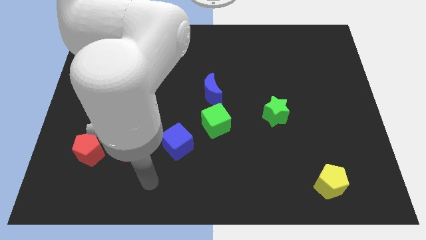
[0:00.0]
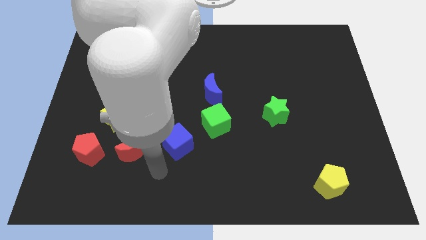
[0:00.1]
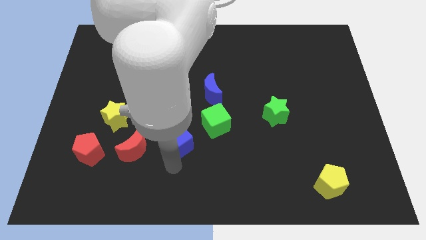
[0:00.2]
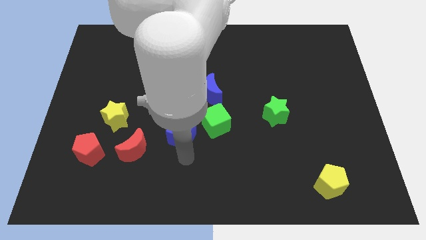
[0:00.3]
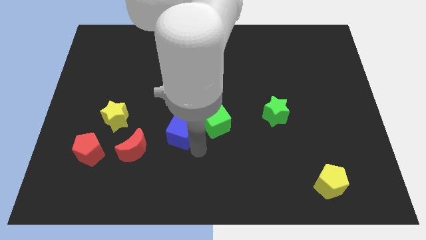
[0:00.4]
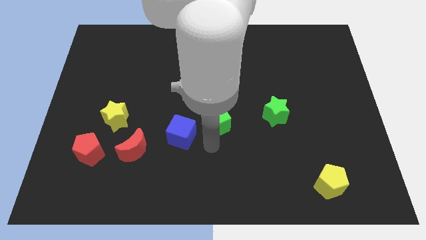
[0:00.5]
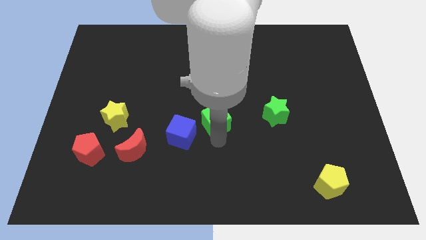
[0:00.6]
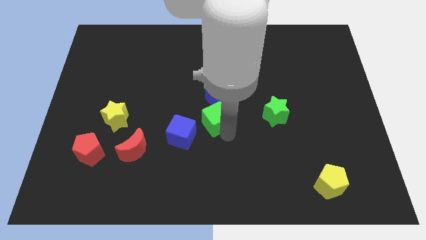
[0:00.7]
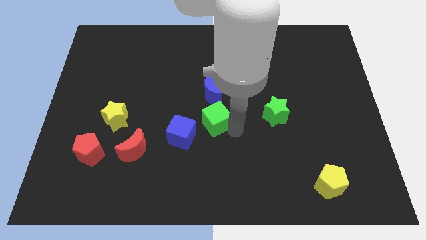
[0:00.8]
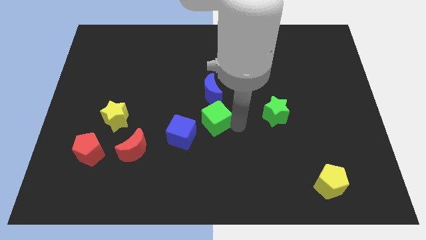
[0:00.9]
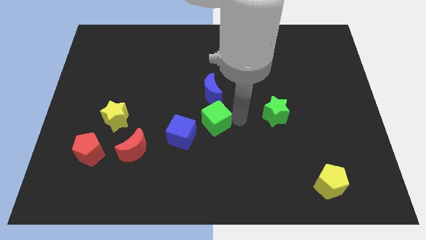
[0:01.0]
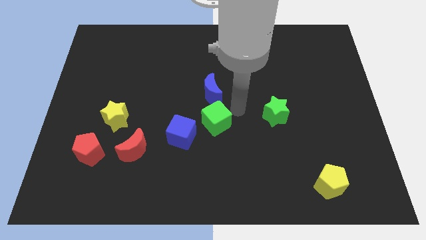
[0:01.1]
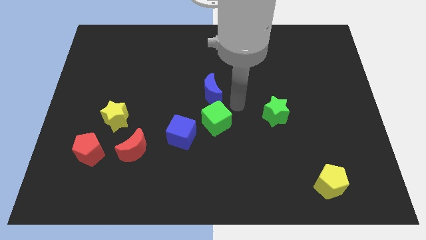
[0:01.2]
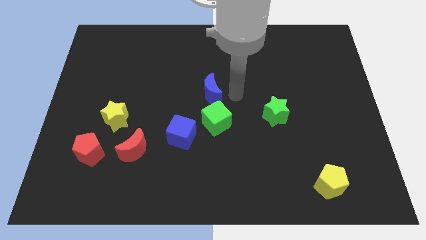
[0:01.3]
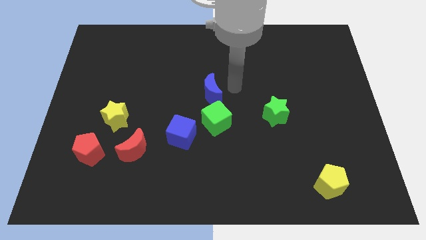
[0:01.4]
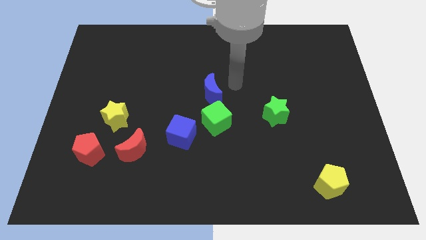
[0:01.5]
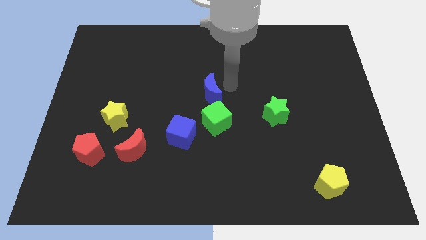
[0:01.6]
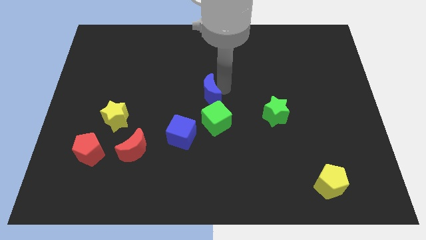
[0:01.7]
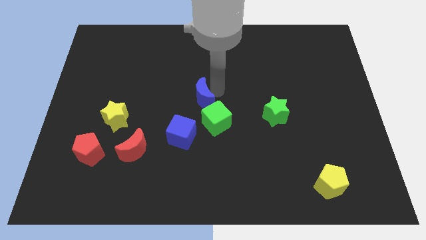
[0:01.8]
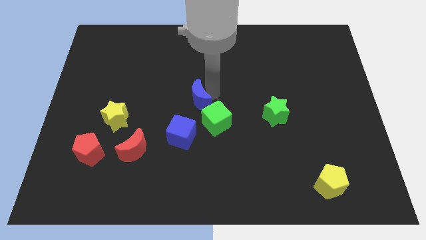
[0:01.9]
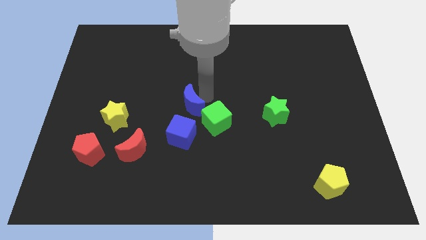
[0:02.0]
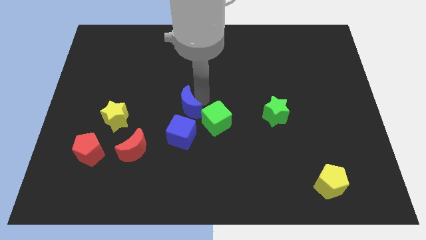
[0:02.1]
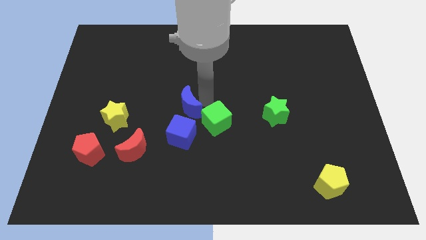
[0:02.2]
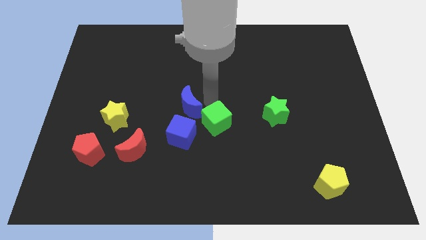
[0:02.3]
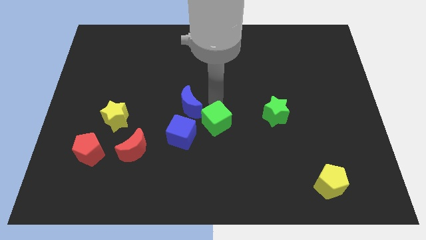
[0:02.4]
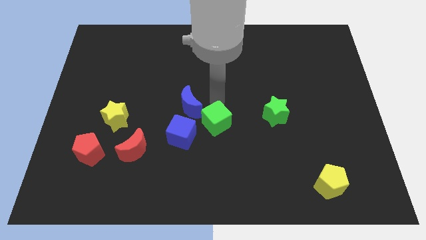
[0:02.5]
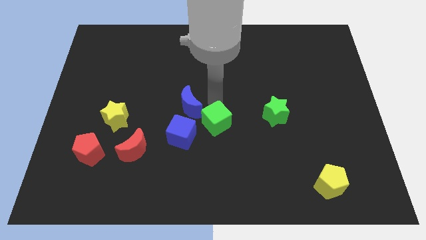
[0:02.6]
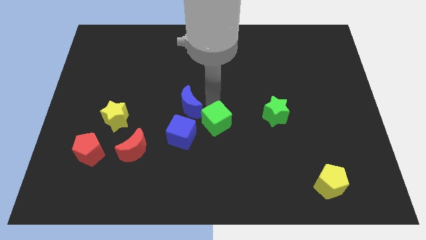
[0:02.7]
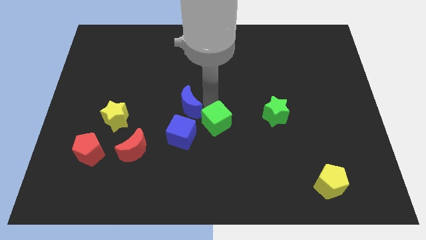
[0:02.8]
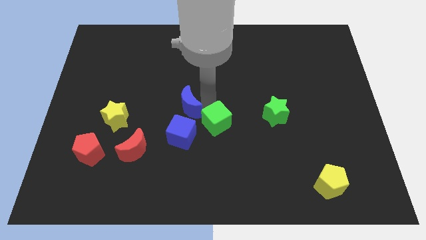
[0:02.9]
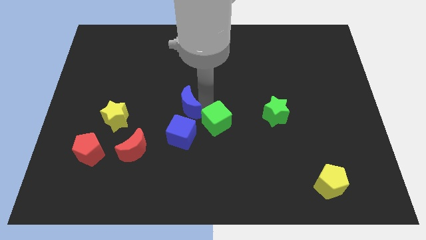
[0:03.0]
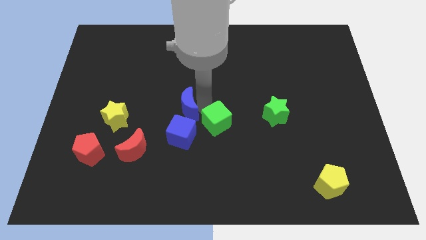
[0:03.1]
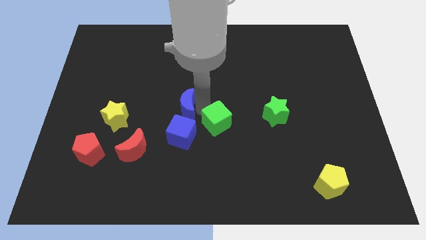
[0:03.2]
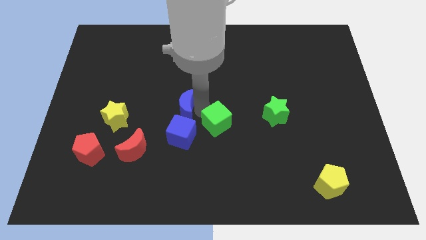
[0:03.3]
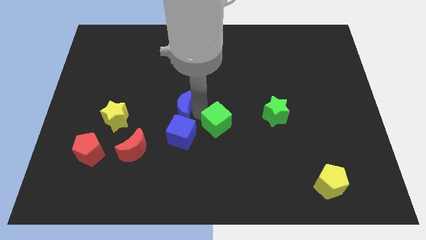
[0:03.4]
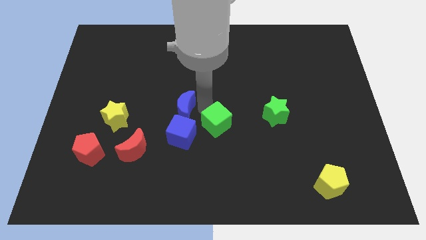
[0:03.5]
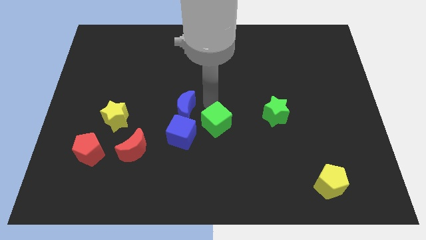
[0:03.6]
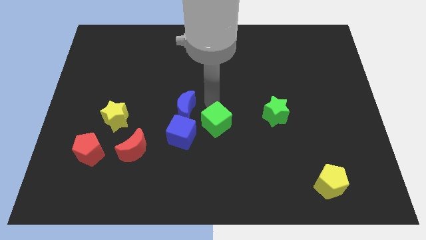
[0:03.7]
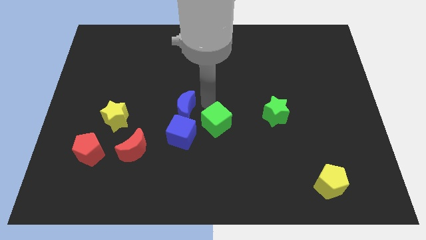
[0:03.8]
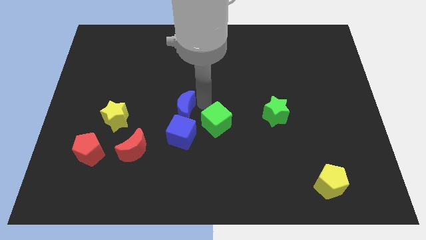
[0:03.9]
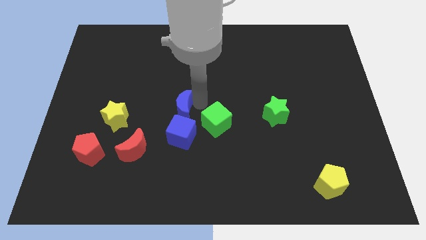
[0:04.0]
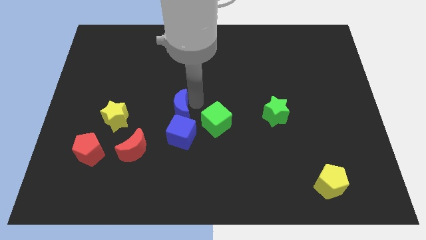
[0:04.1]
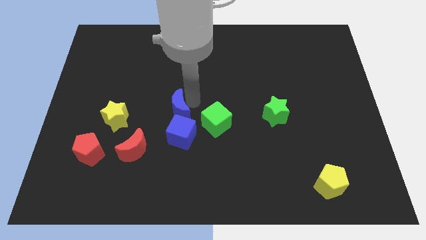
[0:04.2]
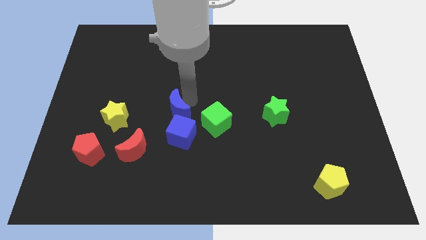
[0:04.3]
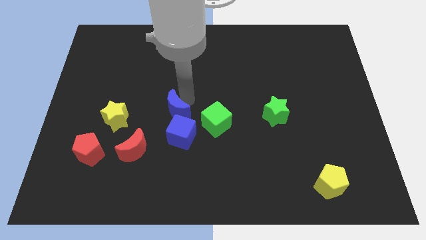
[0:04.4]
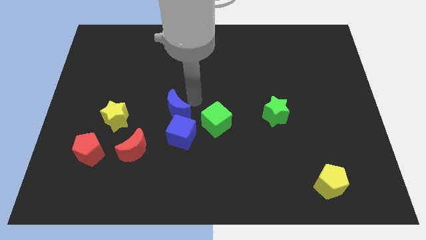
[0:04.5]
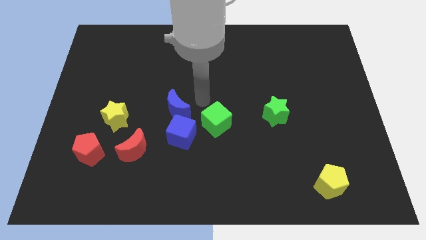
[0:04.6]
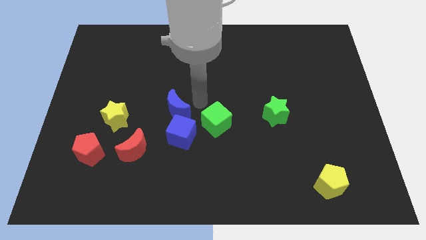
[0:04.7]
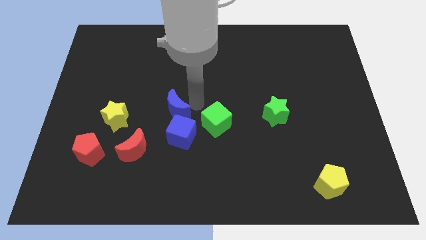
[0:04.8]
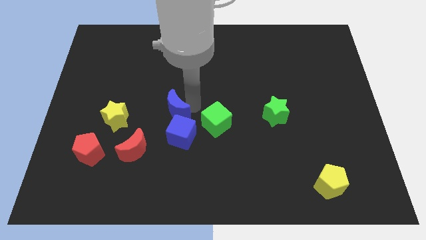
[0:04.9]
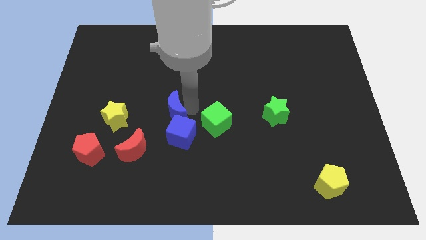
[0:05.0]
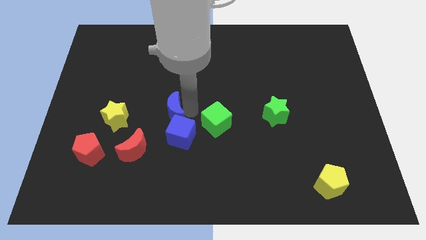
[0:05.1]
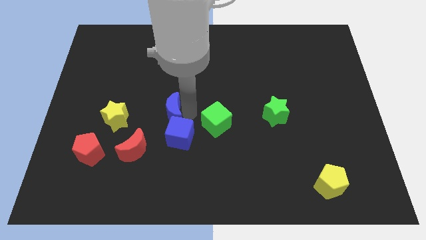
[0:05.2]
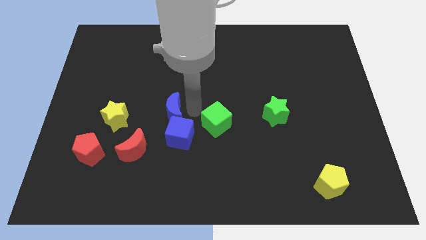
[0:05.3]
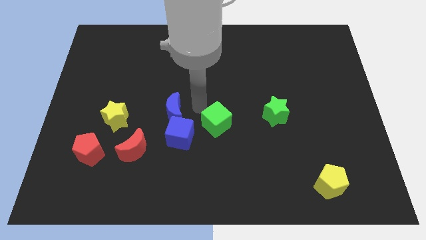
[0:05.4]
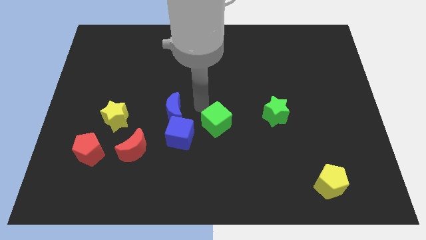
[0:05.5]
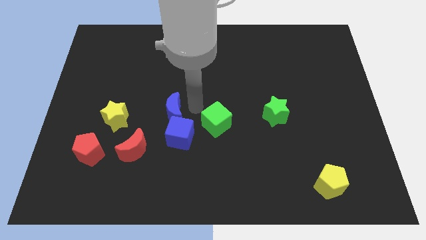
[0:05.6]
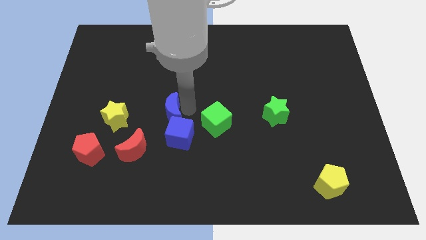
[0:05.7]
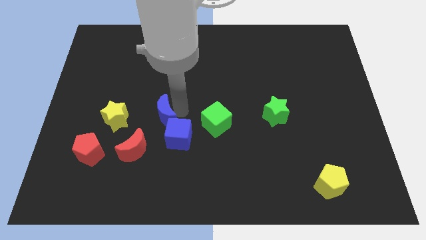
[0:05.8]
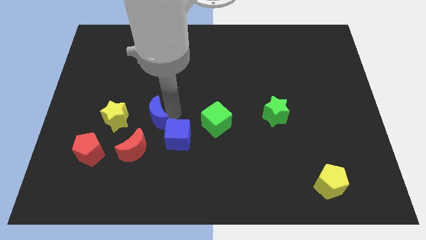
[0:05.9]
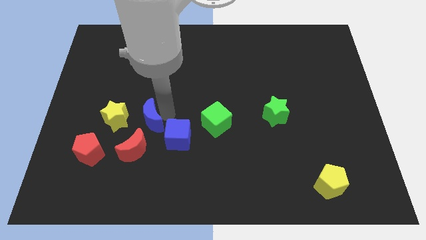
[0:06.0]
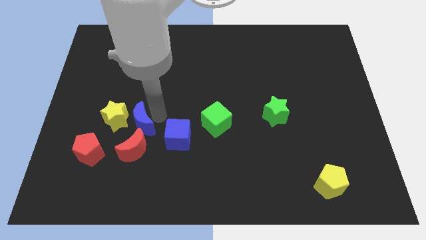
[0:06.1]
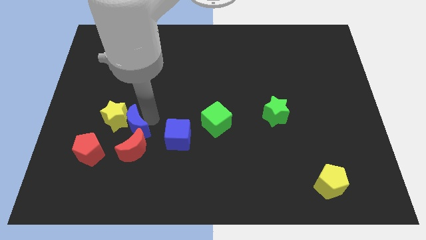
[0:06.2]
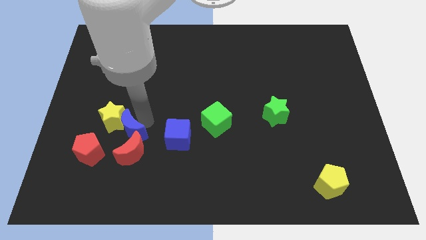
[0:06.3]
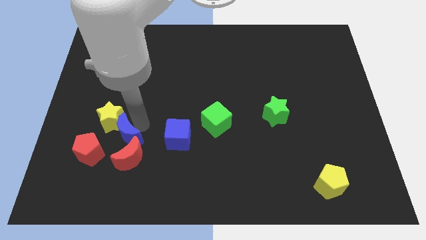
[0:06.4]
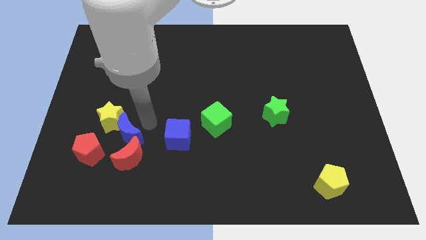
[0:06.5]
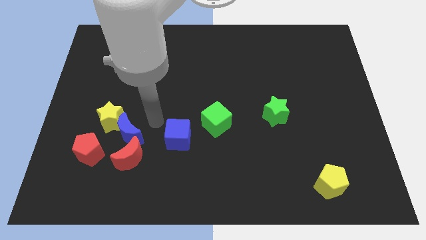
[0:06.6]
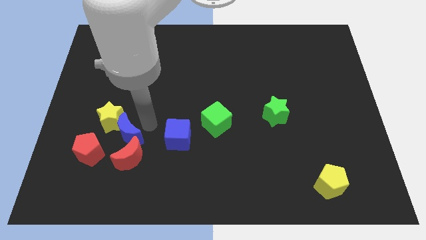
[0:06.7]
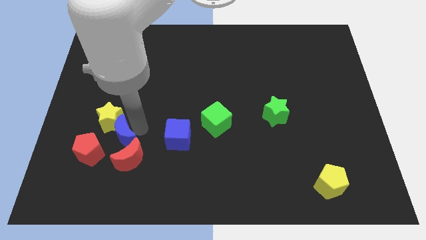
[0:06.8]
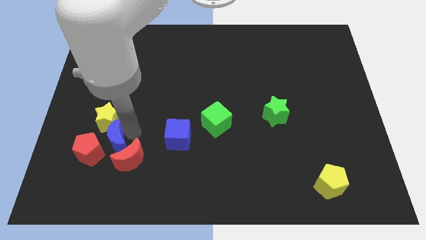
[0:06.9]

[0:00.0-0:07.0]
move the blue moon to the red pentagon
